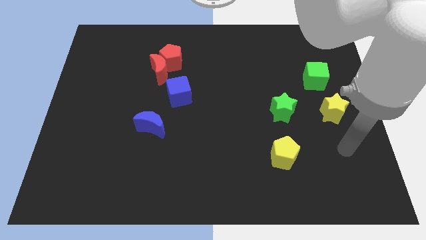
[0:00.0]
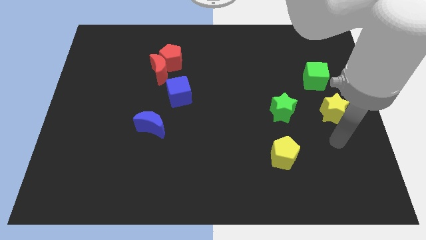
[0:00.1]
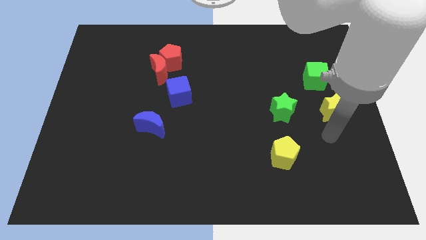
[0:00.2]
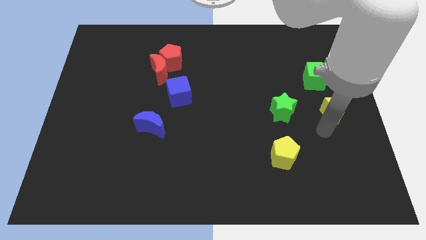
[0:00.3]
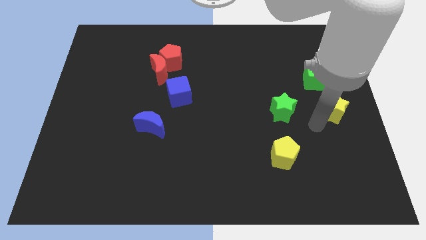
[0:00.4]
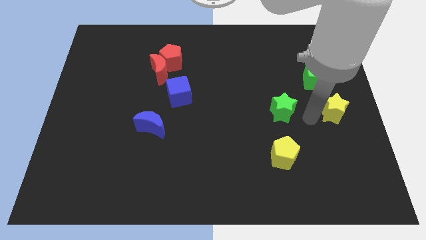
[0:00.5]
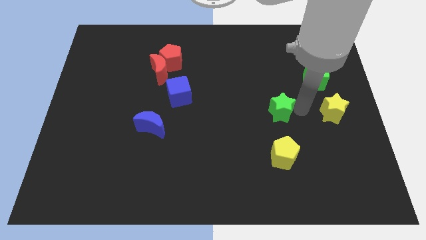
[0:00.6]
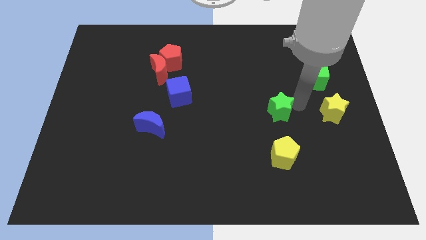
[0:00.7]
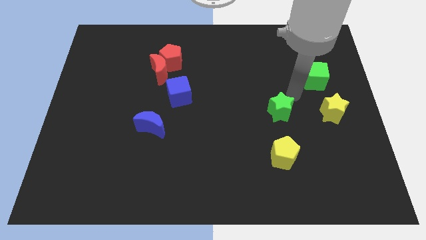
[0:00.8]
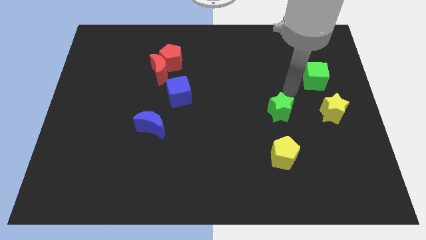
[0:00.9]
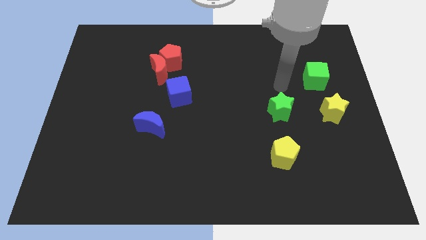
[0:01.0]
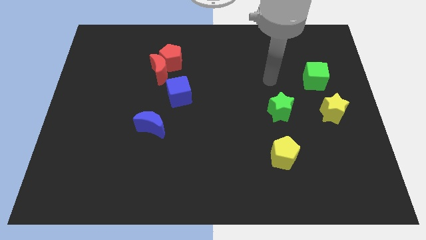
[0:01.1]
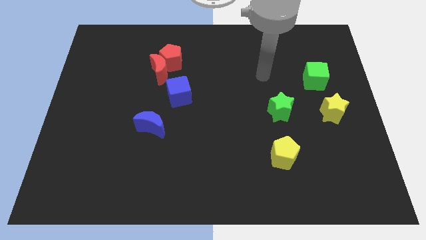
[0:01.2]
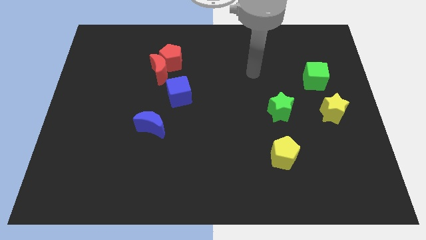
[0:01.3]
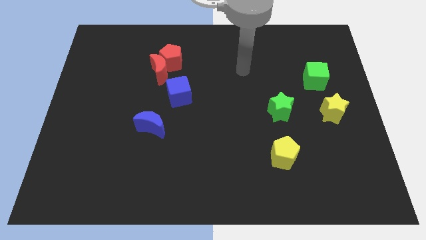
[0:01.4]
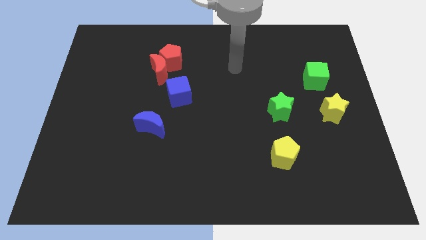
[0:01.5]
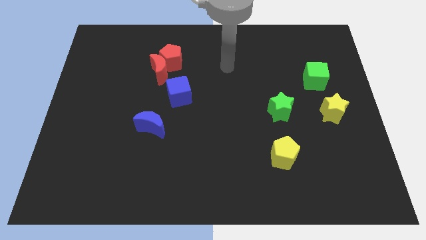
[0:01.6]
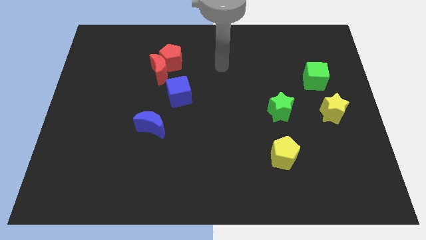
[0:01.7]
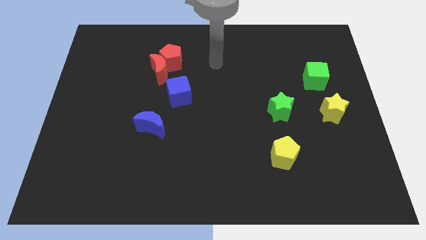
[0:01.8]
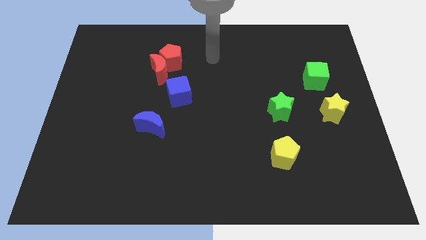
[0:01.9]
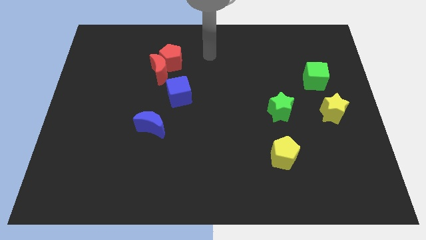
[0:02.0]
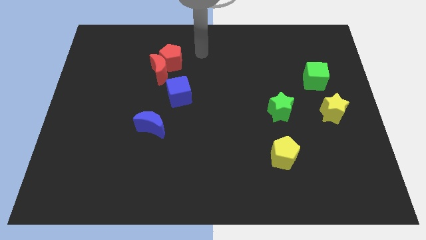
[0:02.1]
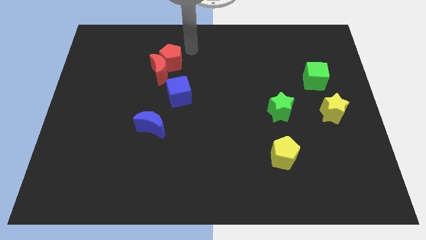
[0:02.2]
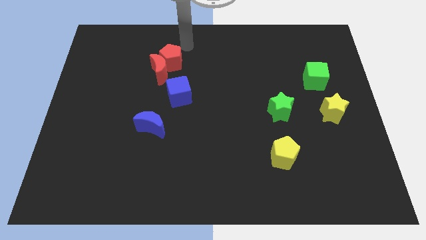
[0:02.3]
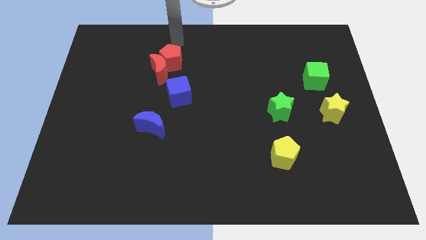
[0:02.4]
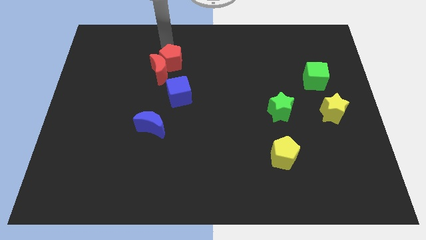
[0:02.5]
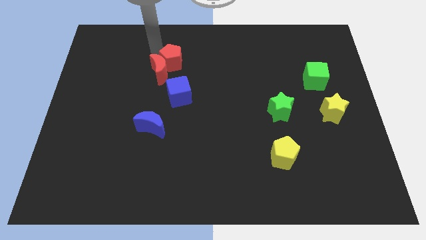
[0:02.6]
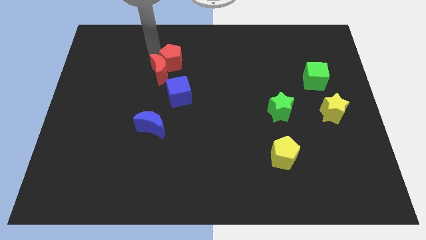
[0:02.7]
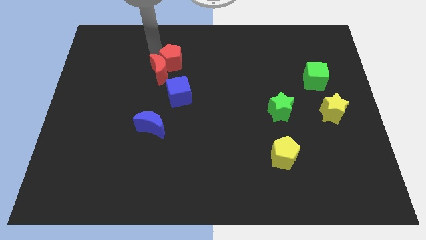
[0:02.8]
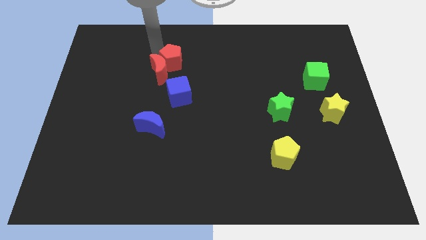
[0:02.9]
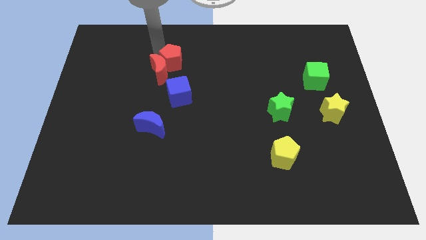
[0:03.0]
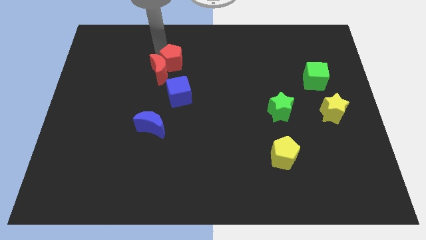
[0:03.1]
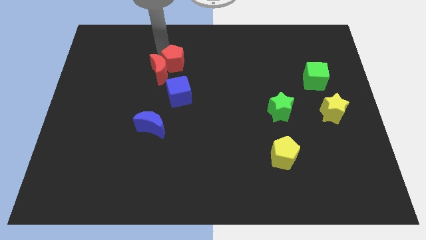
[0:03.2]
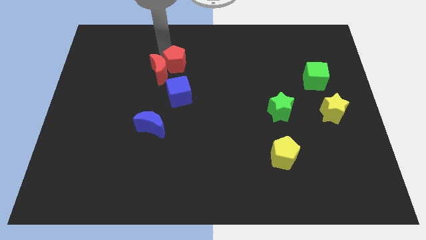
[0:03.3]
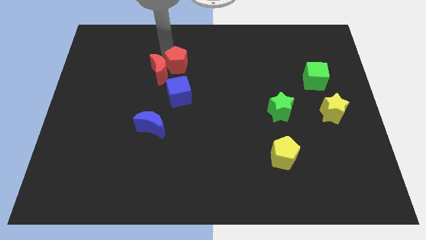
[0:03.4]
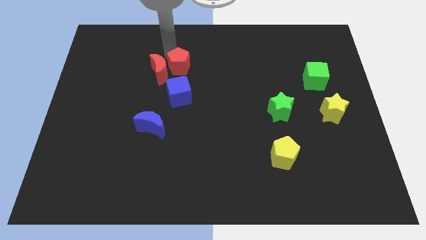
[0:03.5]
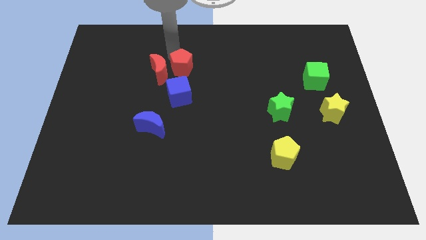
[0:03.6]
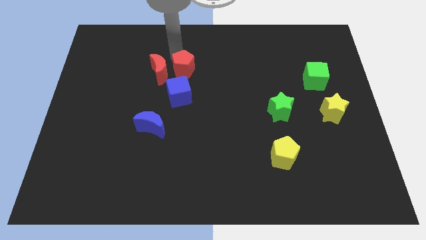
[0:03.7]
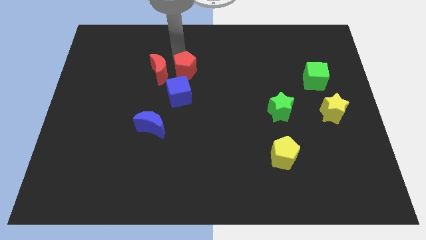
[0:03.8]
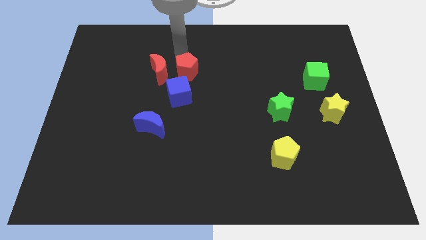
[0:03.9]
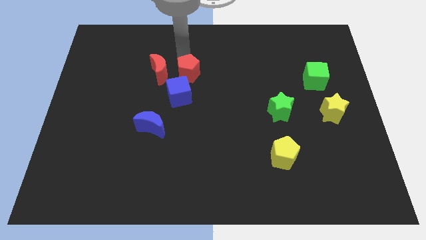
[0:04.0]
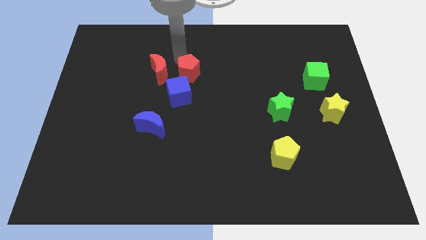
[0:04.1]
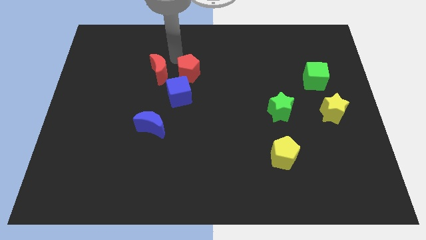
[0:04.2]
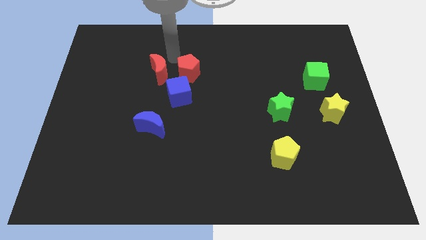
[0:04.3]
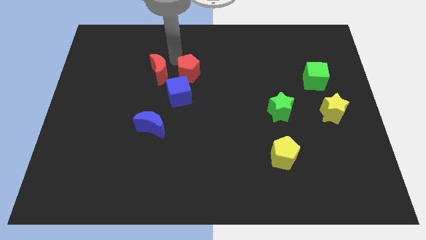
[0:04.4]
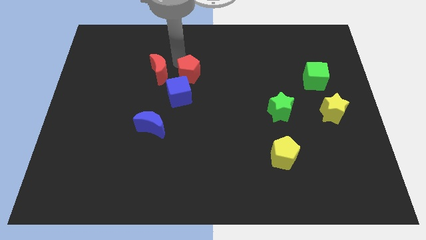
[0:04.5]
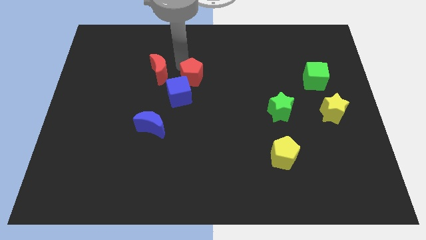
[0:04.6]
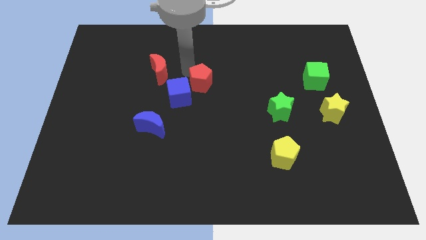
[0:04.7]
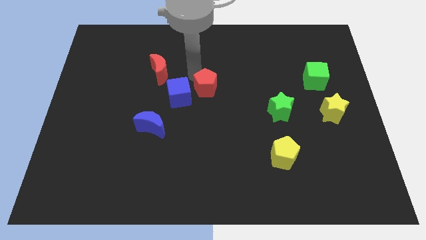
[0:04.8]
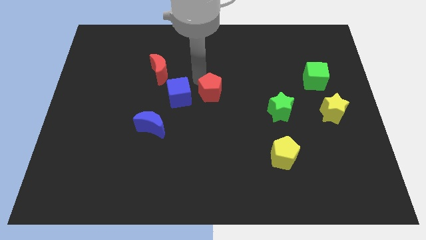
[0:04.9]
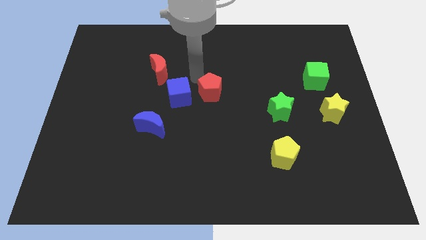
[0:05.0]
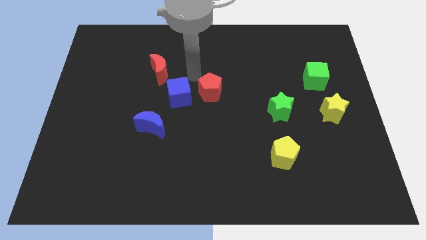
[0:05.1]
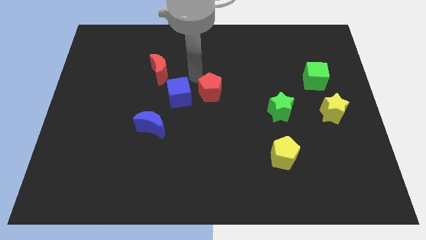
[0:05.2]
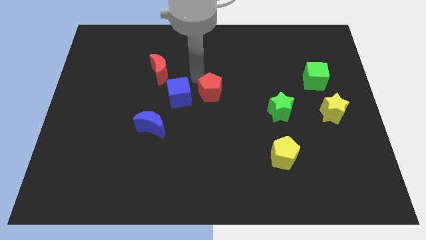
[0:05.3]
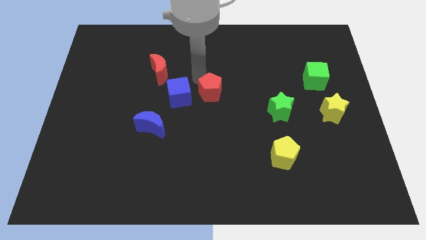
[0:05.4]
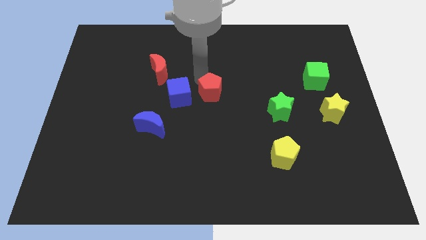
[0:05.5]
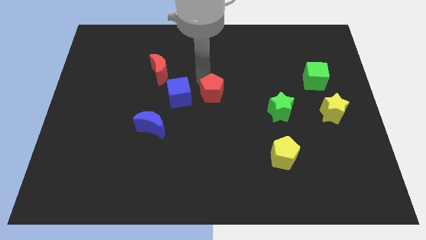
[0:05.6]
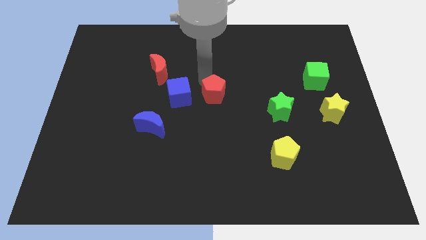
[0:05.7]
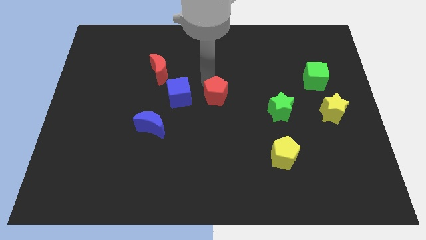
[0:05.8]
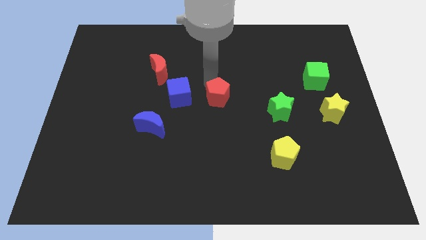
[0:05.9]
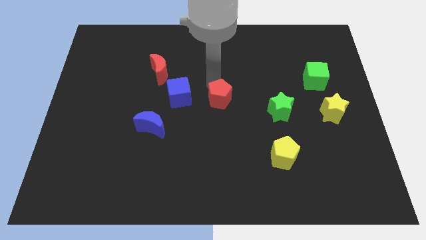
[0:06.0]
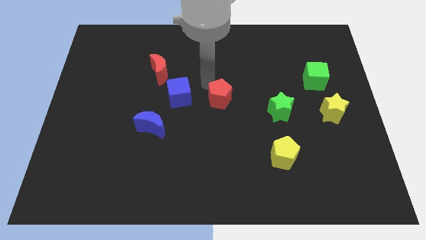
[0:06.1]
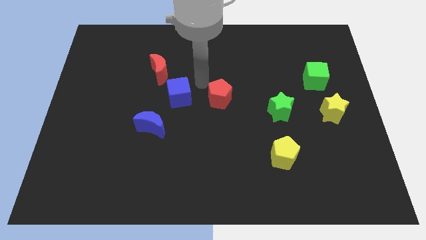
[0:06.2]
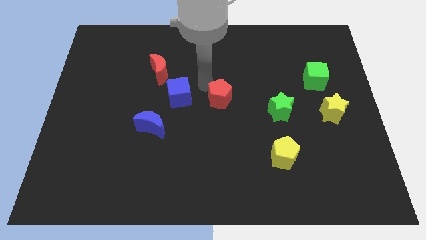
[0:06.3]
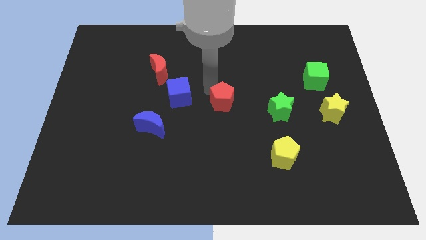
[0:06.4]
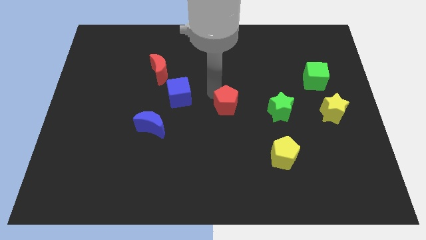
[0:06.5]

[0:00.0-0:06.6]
slide the red pentagon down and to the right

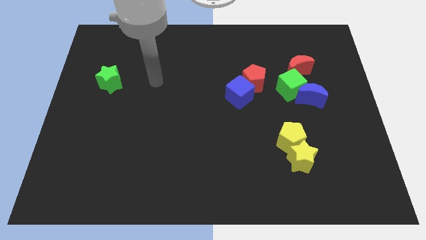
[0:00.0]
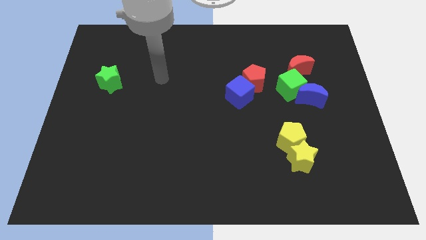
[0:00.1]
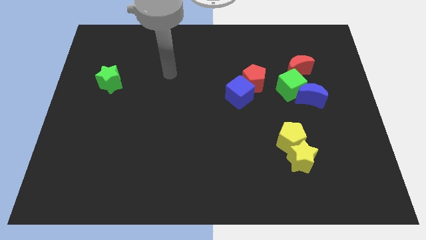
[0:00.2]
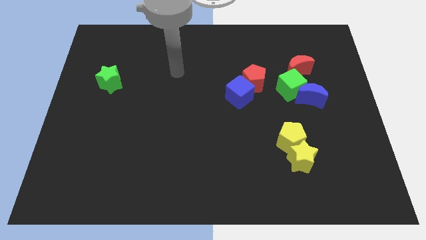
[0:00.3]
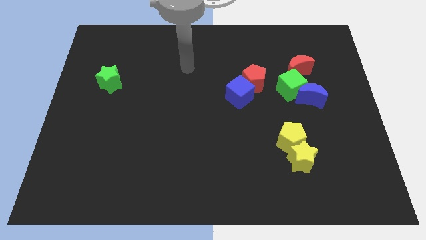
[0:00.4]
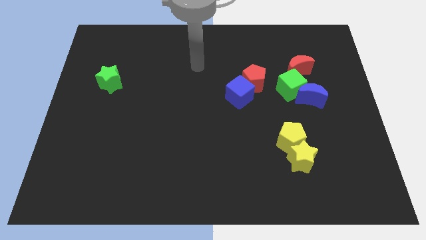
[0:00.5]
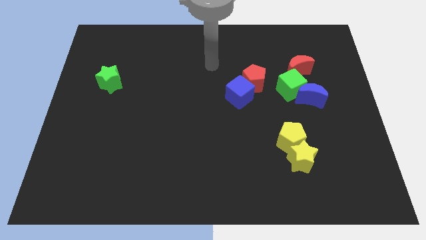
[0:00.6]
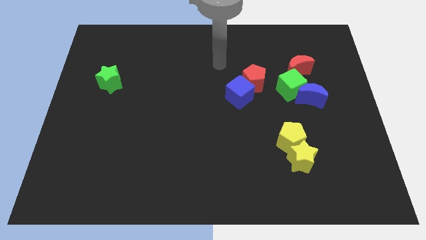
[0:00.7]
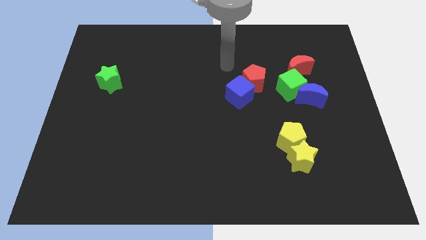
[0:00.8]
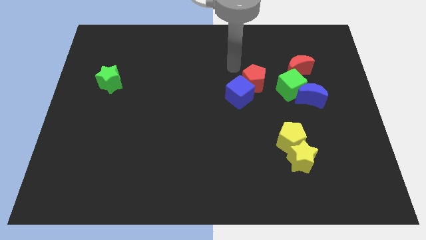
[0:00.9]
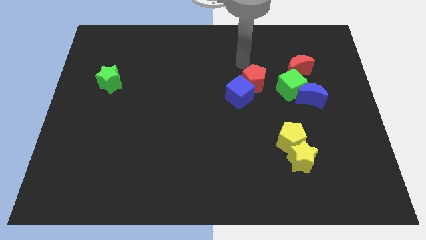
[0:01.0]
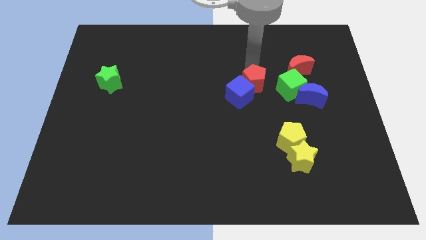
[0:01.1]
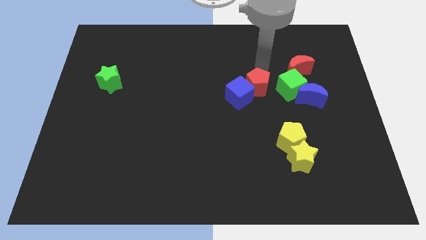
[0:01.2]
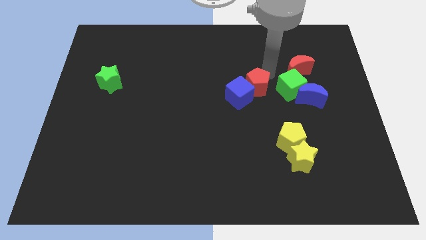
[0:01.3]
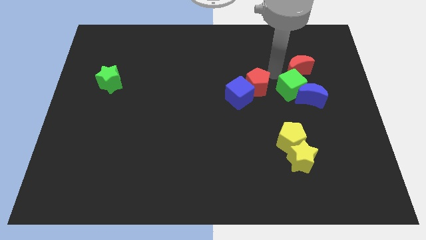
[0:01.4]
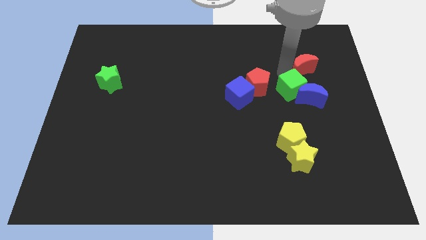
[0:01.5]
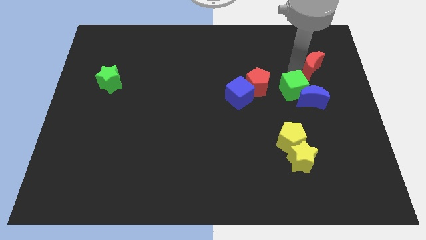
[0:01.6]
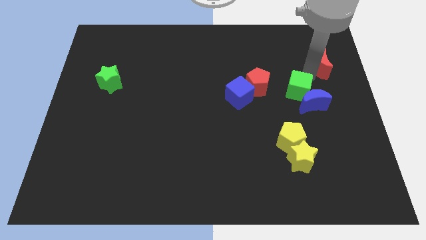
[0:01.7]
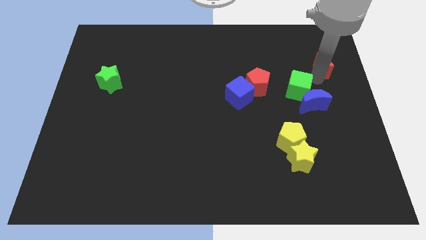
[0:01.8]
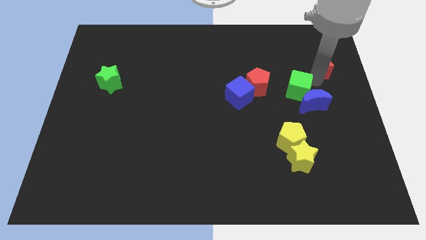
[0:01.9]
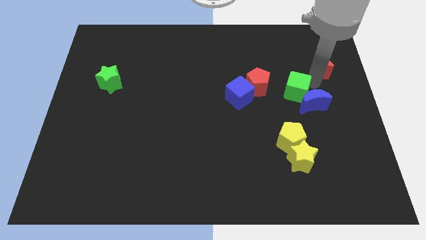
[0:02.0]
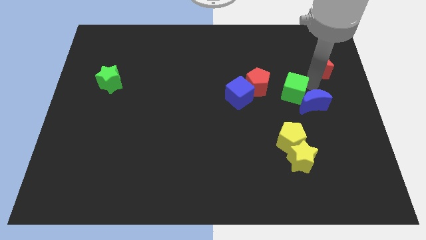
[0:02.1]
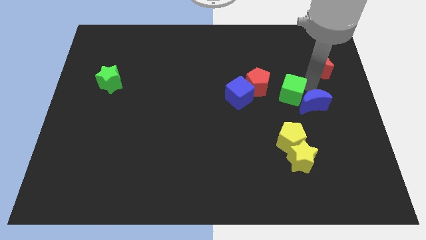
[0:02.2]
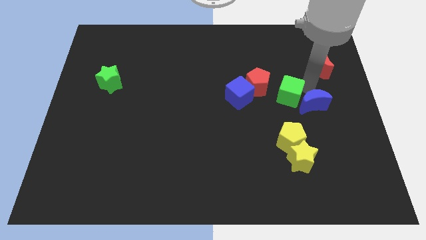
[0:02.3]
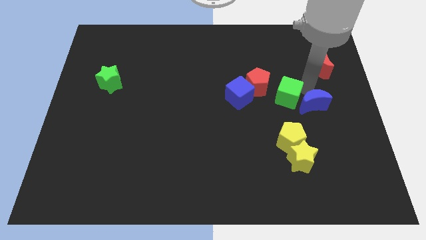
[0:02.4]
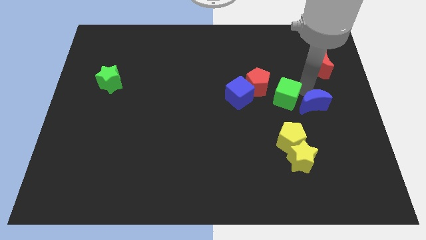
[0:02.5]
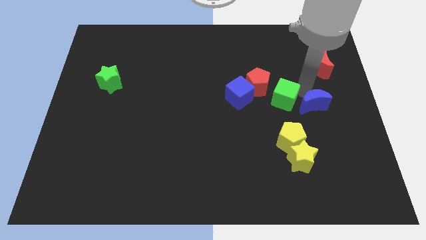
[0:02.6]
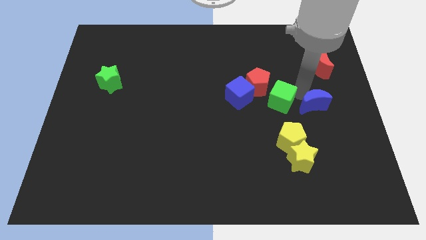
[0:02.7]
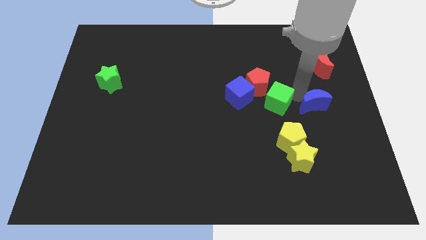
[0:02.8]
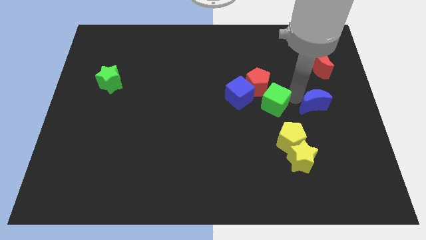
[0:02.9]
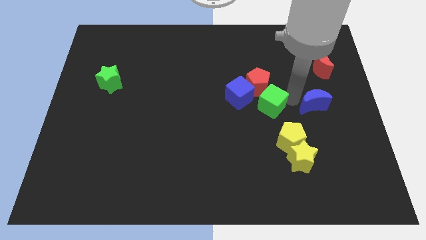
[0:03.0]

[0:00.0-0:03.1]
slightly push the green cube diagonally downwards and left
